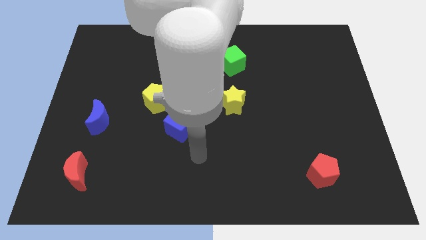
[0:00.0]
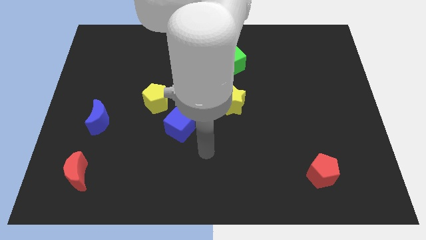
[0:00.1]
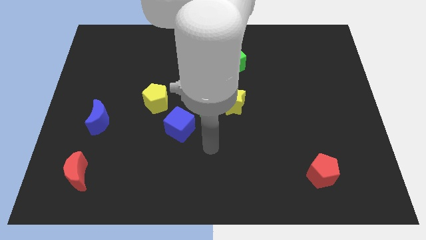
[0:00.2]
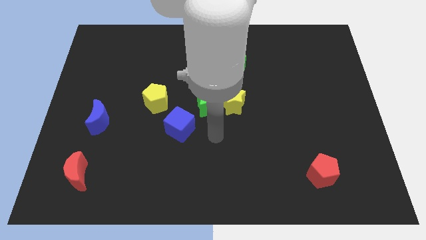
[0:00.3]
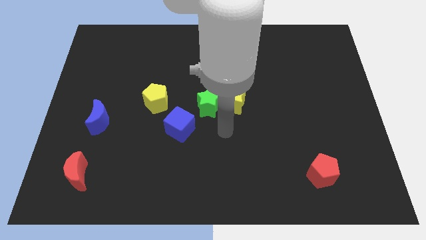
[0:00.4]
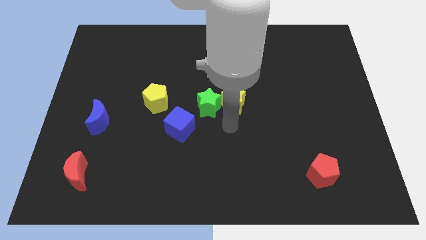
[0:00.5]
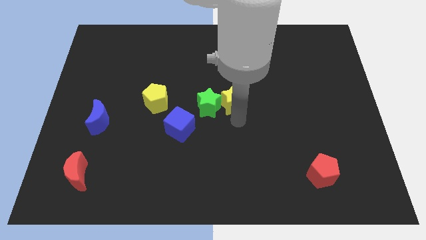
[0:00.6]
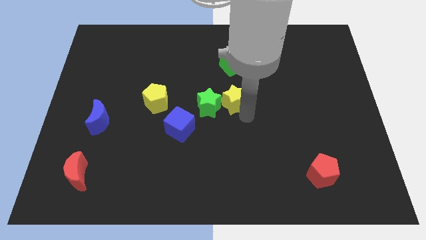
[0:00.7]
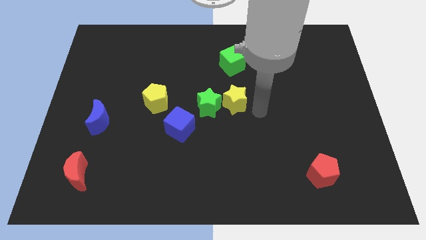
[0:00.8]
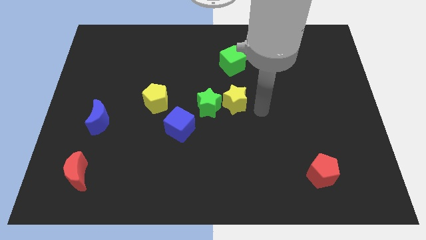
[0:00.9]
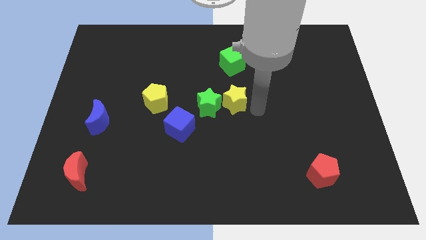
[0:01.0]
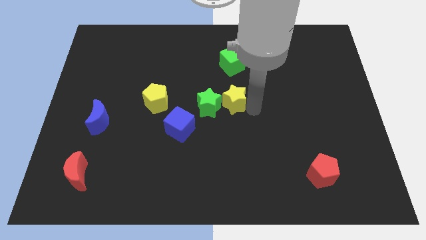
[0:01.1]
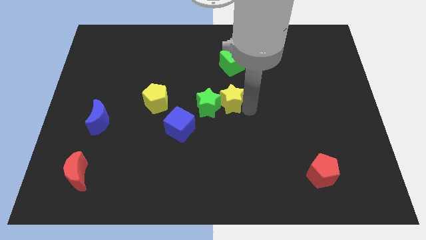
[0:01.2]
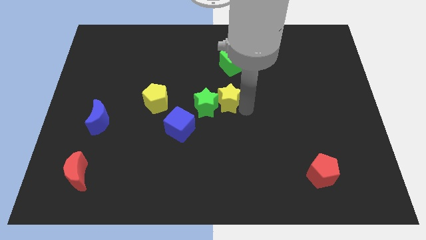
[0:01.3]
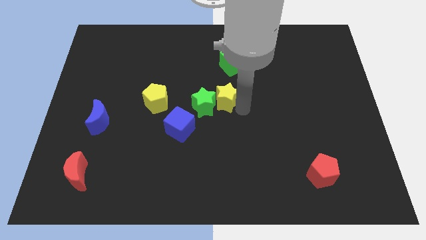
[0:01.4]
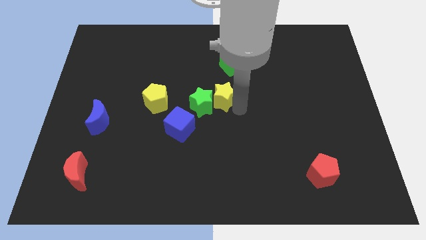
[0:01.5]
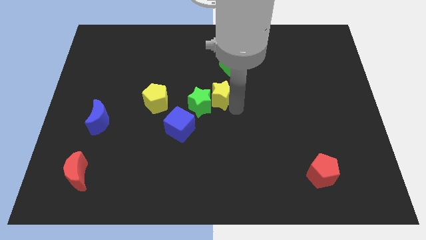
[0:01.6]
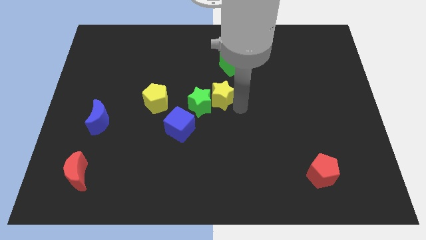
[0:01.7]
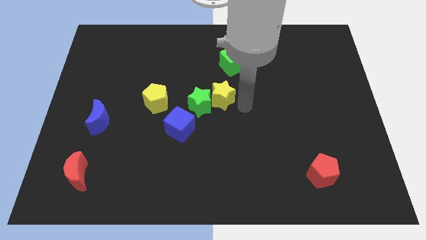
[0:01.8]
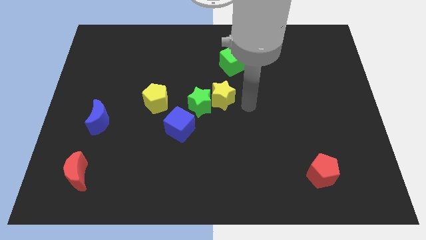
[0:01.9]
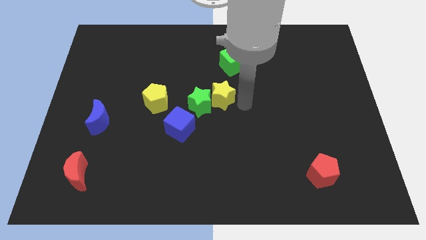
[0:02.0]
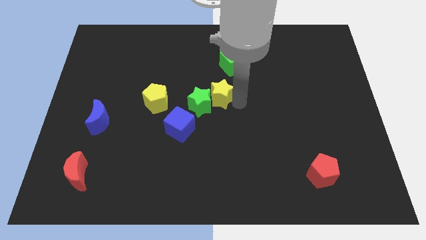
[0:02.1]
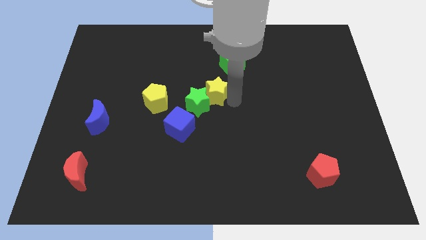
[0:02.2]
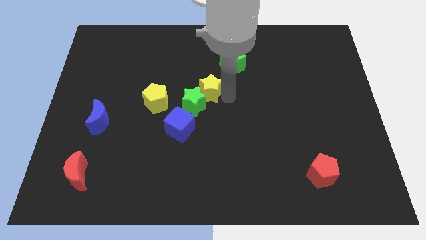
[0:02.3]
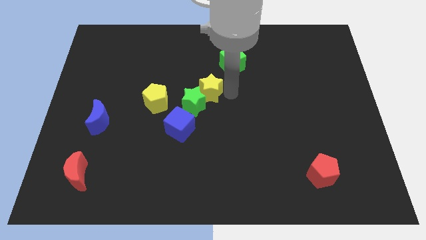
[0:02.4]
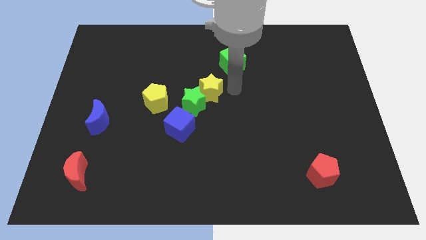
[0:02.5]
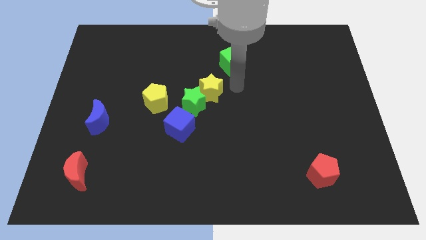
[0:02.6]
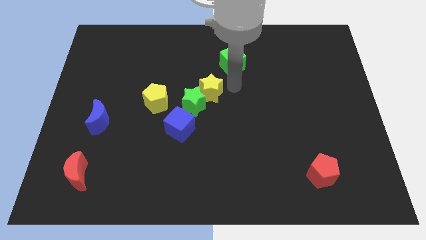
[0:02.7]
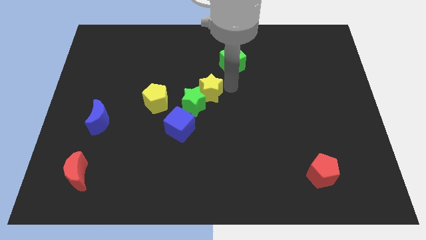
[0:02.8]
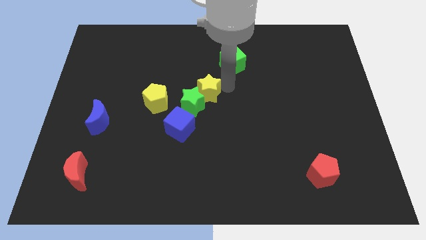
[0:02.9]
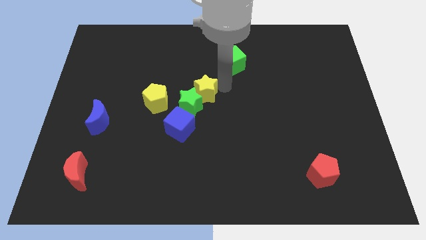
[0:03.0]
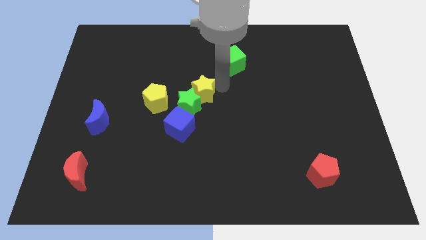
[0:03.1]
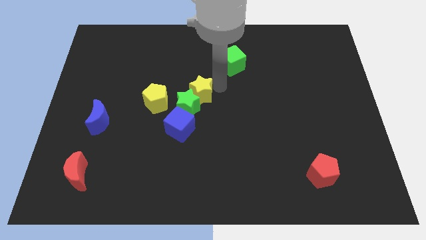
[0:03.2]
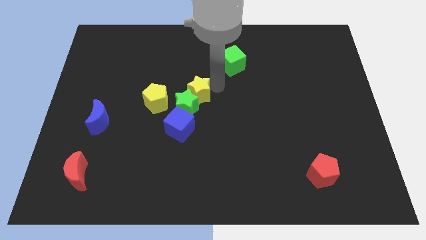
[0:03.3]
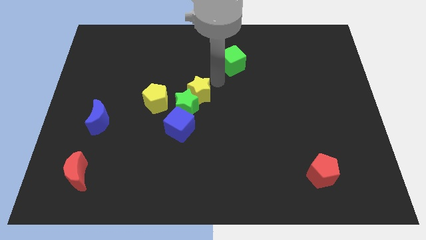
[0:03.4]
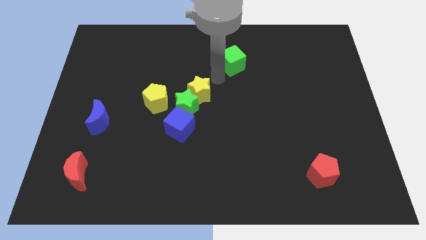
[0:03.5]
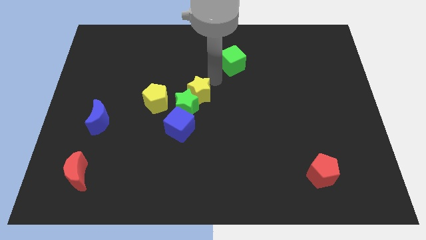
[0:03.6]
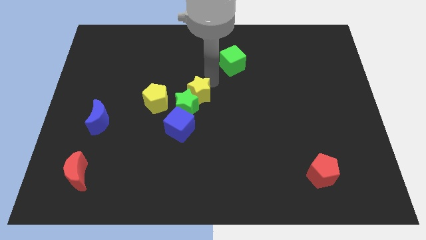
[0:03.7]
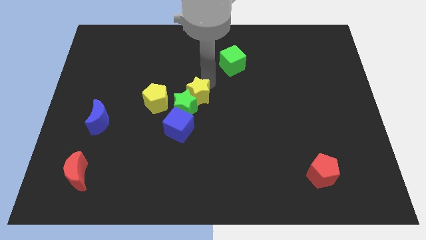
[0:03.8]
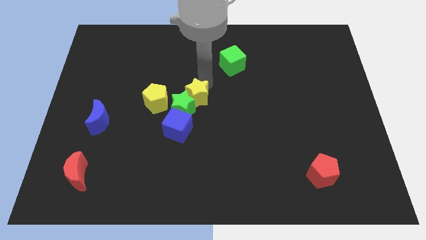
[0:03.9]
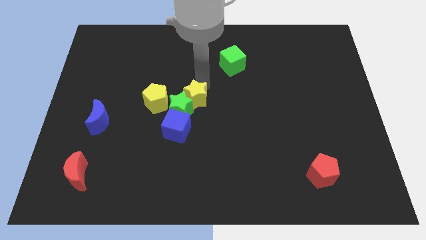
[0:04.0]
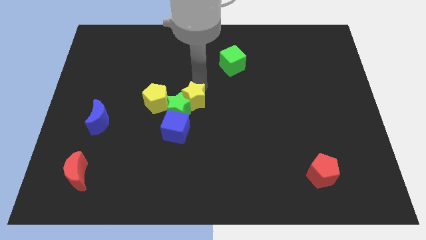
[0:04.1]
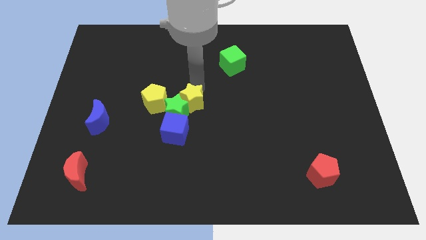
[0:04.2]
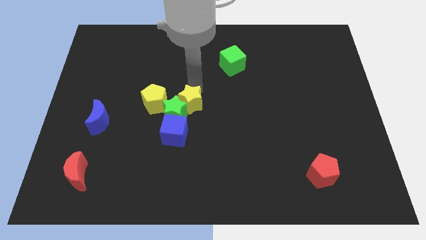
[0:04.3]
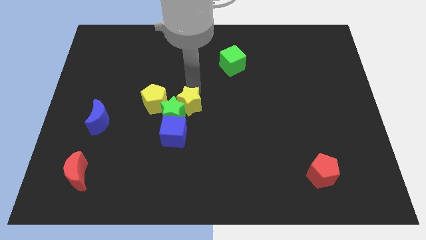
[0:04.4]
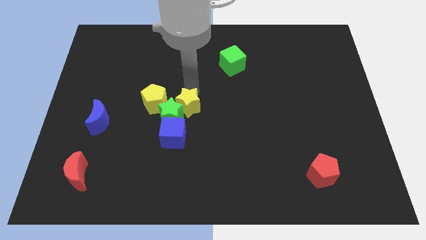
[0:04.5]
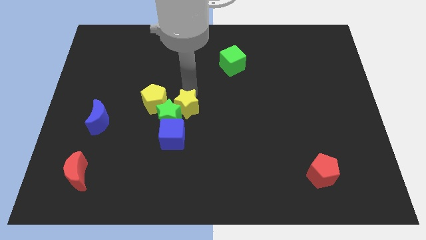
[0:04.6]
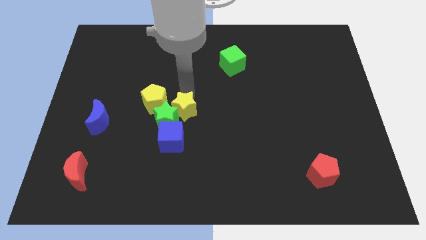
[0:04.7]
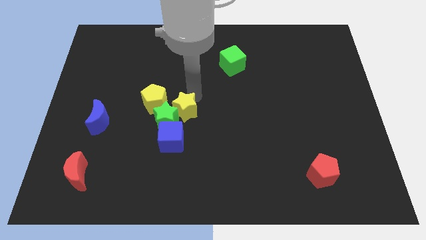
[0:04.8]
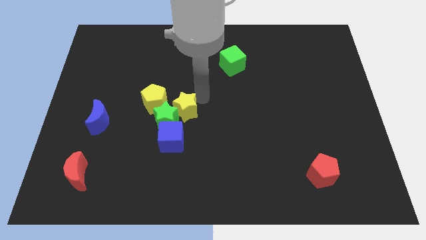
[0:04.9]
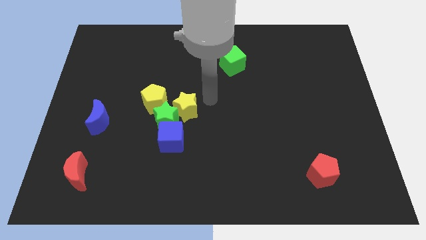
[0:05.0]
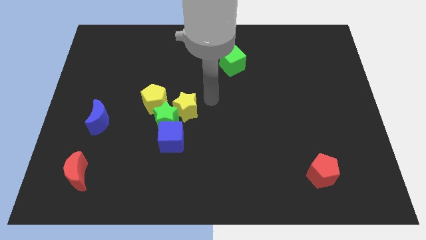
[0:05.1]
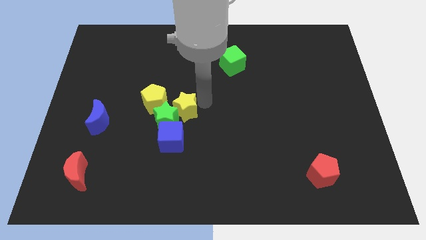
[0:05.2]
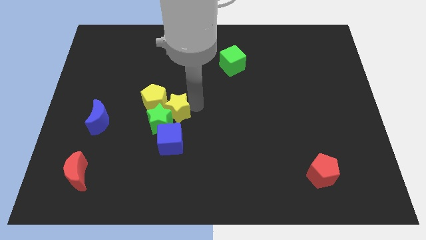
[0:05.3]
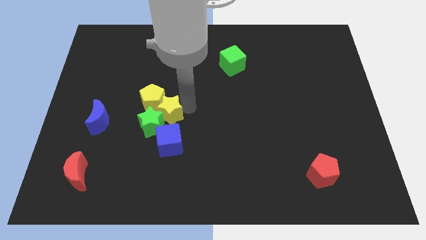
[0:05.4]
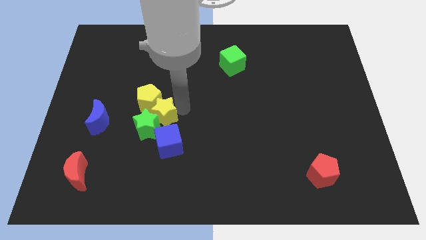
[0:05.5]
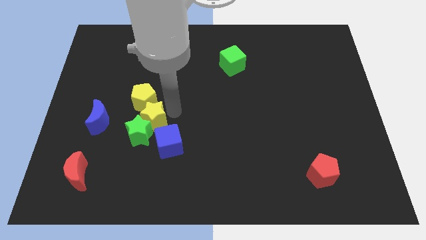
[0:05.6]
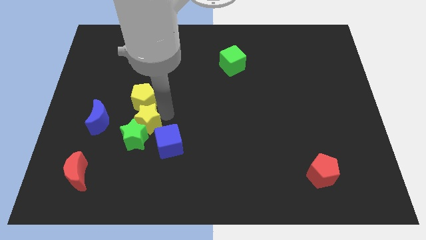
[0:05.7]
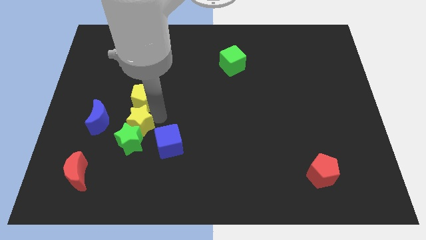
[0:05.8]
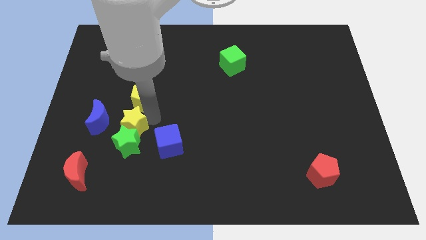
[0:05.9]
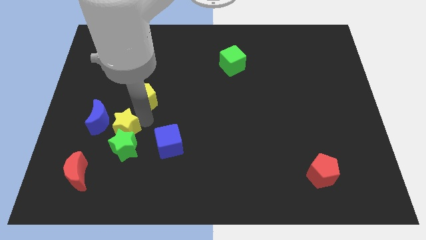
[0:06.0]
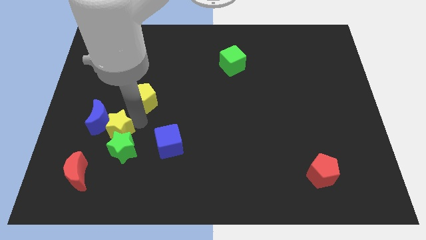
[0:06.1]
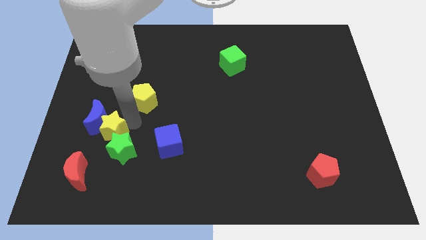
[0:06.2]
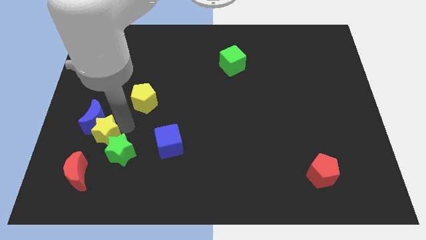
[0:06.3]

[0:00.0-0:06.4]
move the yellow star above the red moon

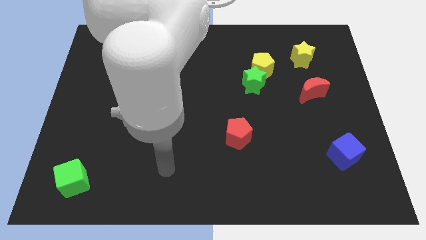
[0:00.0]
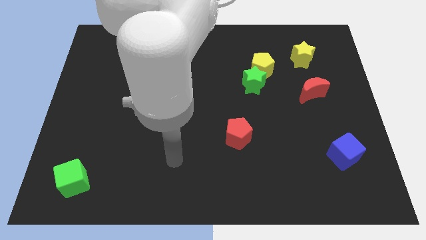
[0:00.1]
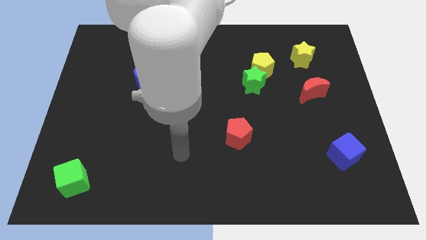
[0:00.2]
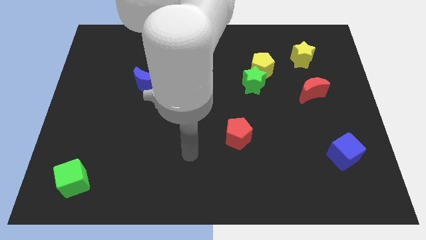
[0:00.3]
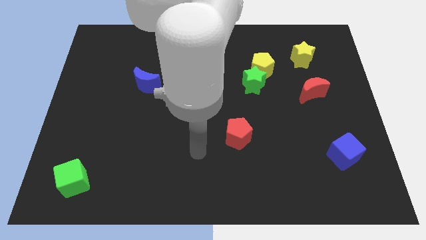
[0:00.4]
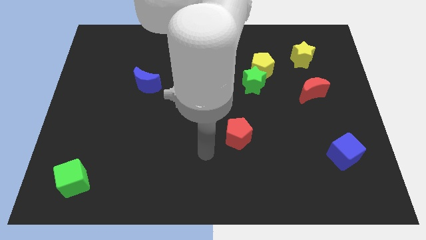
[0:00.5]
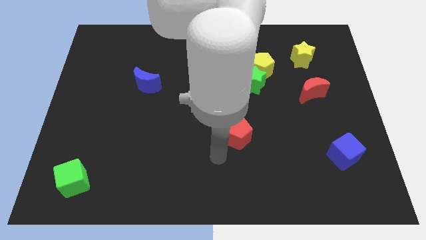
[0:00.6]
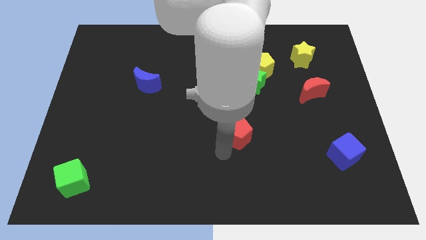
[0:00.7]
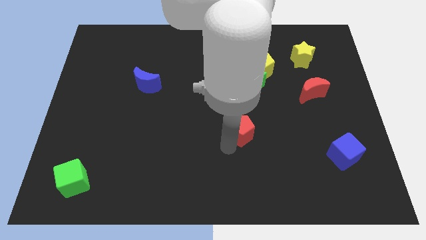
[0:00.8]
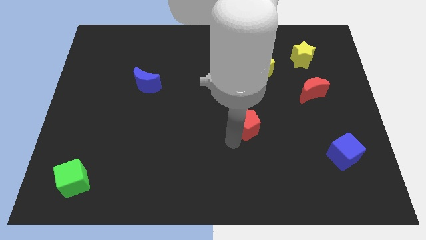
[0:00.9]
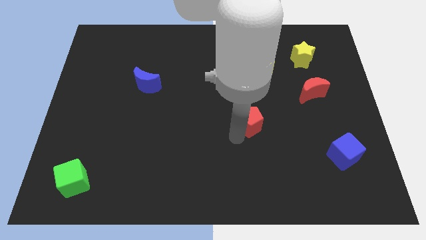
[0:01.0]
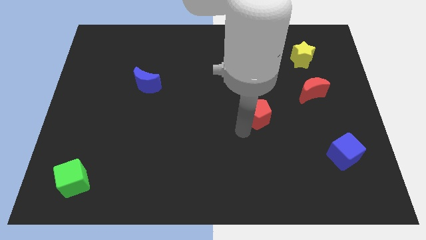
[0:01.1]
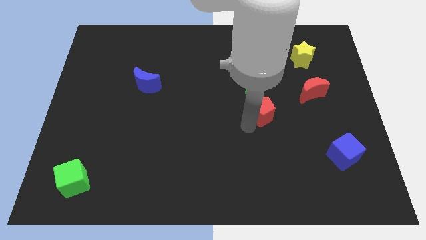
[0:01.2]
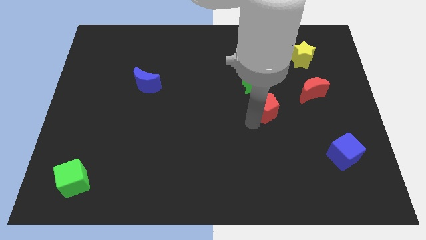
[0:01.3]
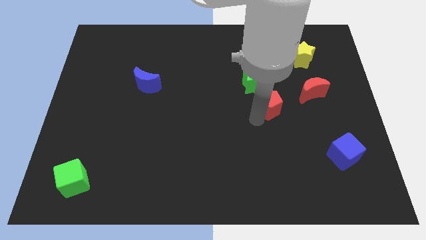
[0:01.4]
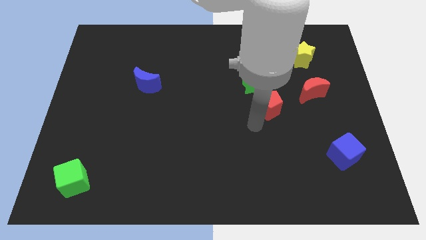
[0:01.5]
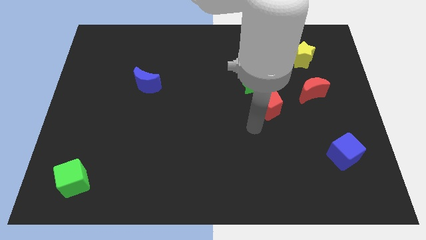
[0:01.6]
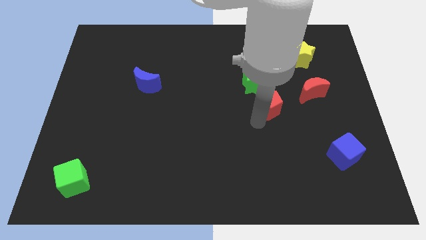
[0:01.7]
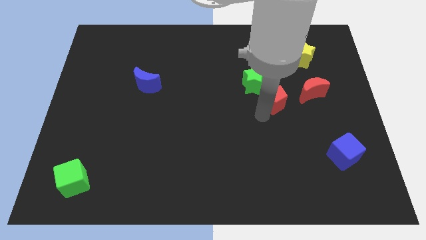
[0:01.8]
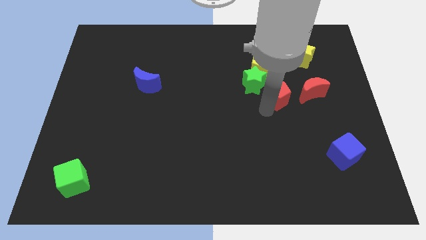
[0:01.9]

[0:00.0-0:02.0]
move the red pentagon to the bottom right side of the yellow pentagon

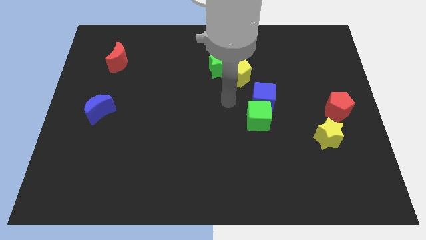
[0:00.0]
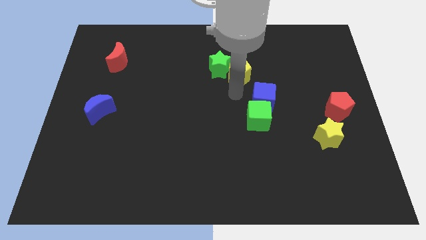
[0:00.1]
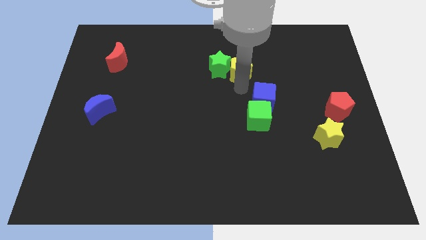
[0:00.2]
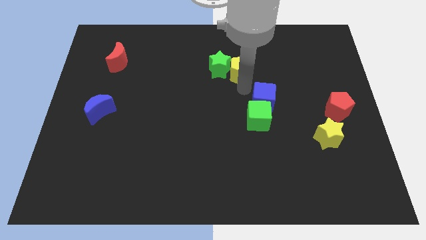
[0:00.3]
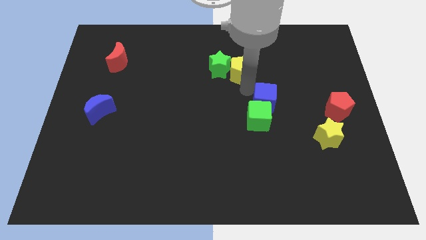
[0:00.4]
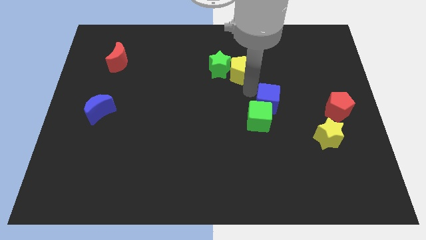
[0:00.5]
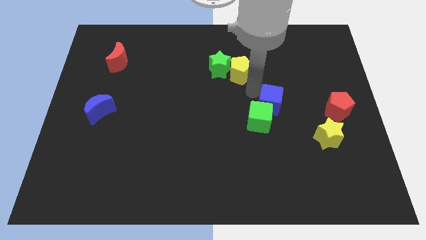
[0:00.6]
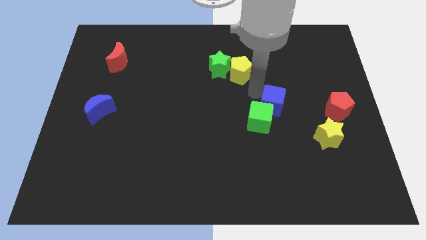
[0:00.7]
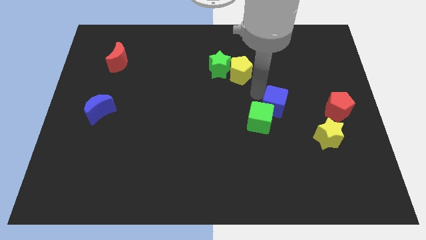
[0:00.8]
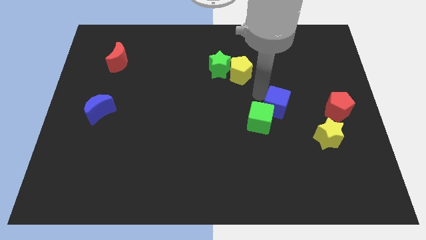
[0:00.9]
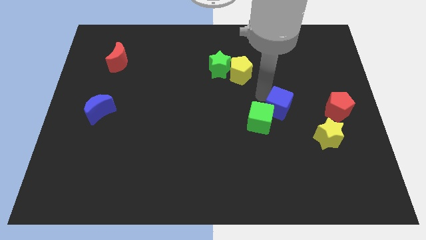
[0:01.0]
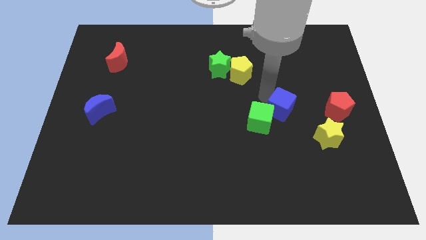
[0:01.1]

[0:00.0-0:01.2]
move the blue cube to the top left side of the yellow star
